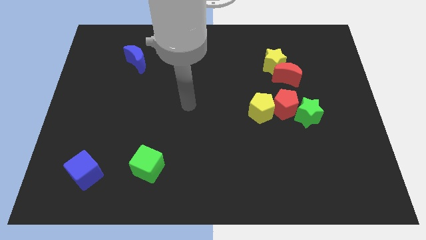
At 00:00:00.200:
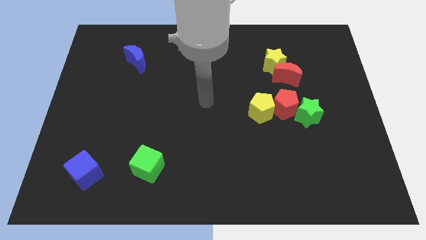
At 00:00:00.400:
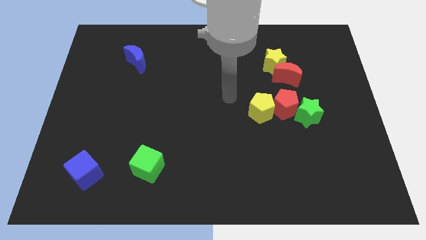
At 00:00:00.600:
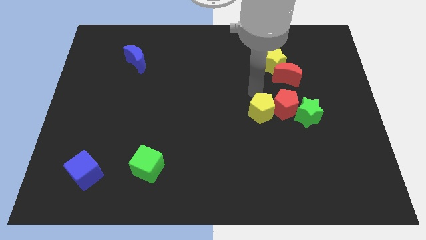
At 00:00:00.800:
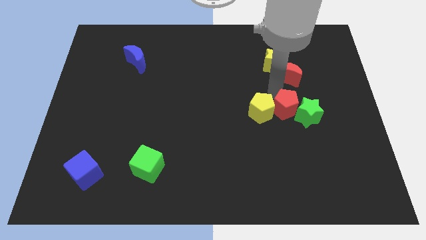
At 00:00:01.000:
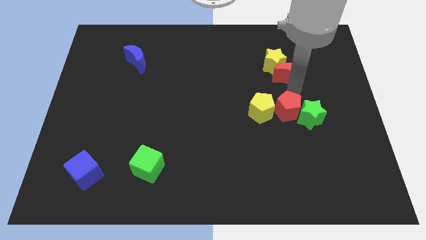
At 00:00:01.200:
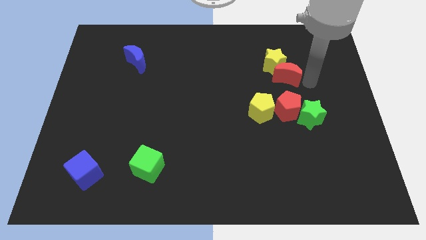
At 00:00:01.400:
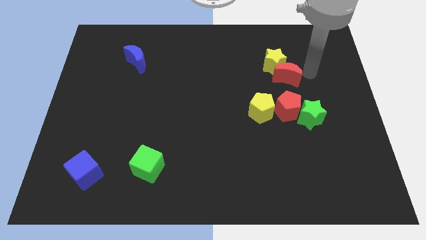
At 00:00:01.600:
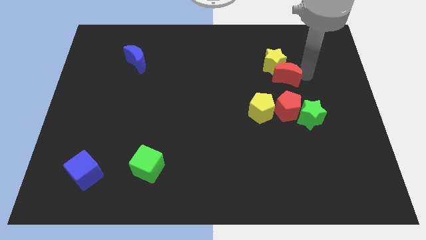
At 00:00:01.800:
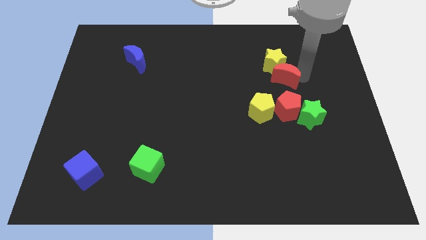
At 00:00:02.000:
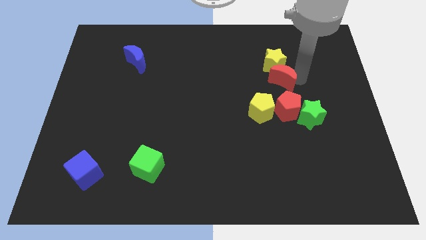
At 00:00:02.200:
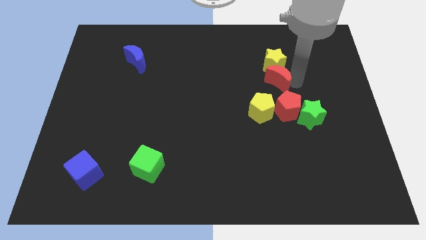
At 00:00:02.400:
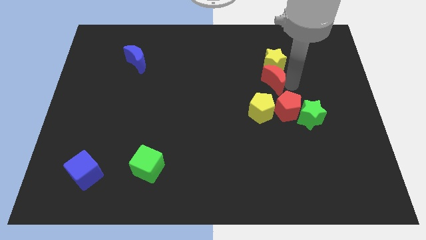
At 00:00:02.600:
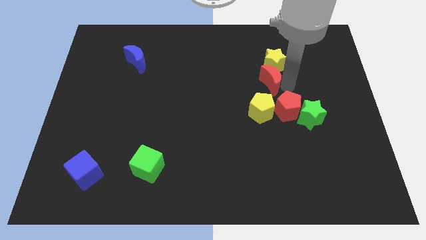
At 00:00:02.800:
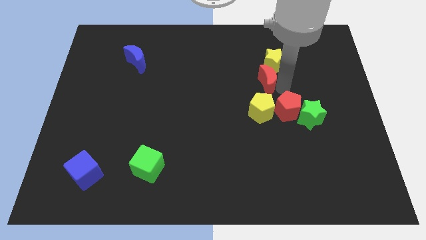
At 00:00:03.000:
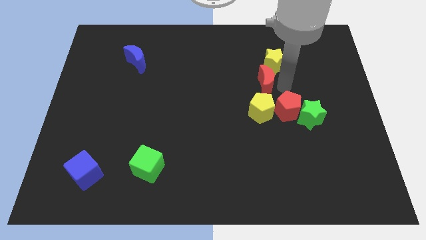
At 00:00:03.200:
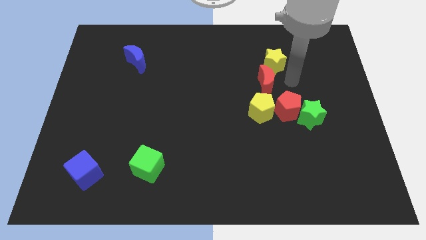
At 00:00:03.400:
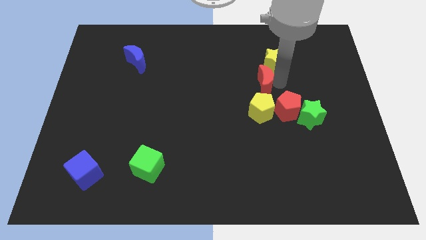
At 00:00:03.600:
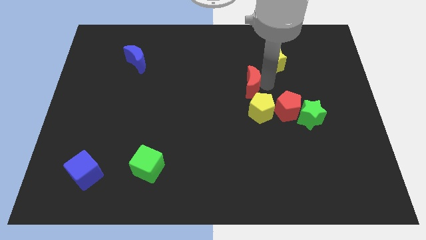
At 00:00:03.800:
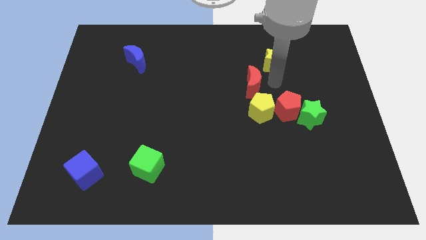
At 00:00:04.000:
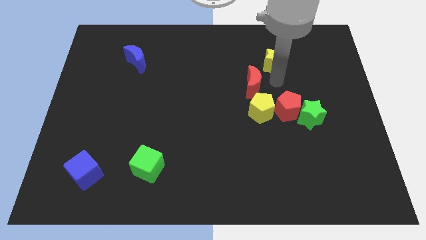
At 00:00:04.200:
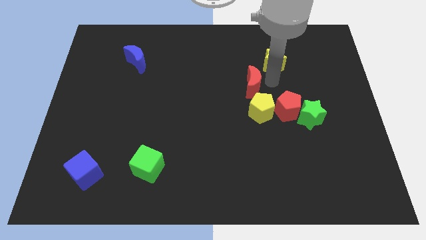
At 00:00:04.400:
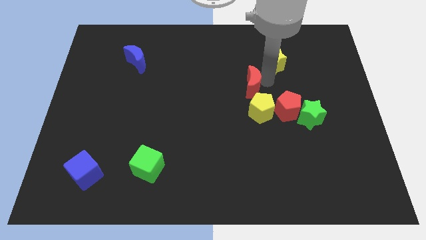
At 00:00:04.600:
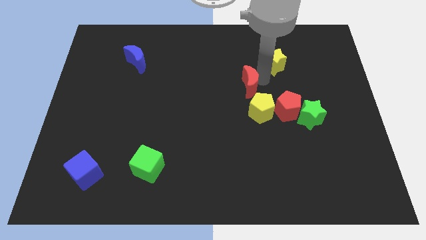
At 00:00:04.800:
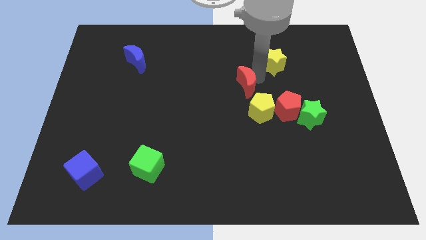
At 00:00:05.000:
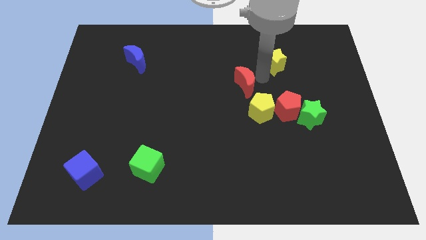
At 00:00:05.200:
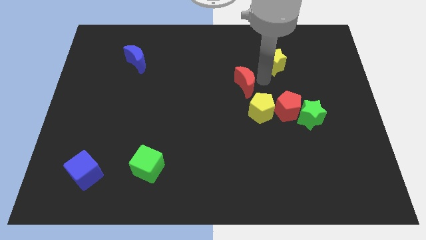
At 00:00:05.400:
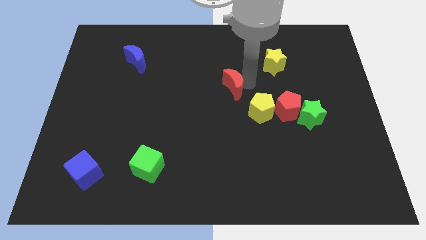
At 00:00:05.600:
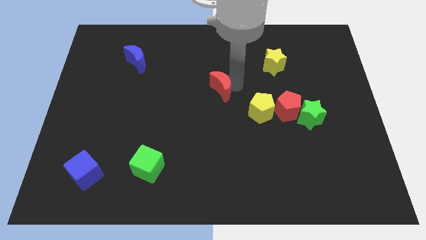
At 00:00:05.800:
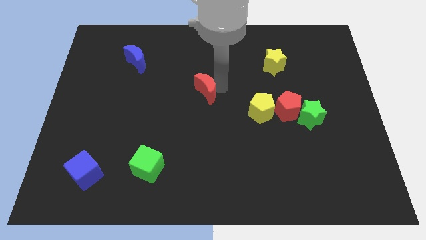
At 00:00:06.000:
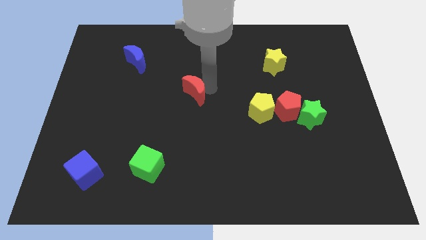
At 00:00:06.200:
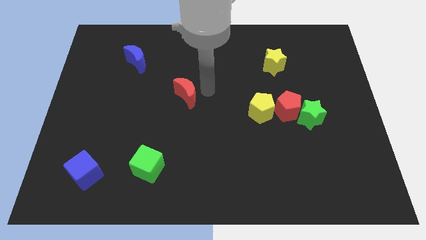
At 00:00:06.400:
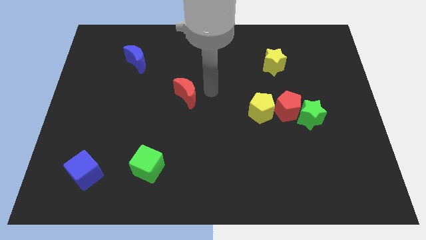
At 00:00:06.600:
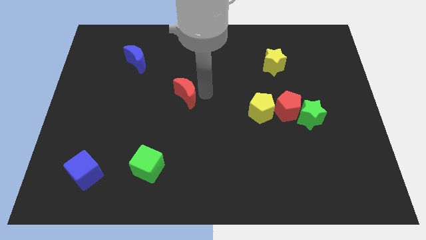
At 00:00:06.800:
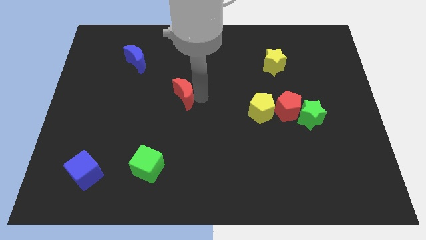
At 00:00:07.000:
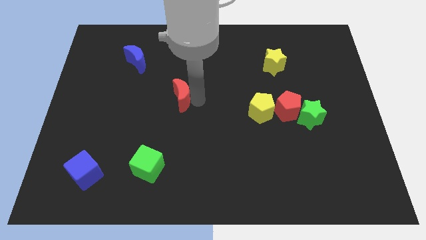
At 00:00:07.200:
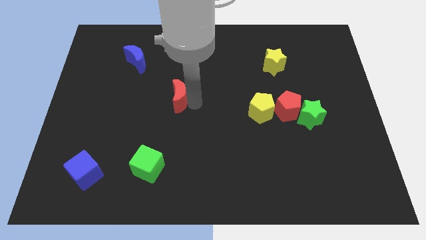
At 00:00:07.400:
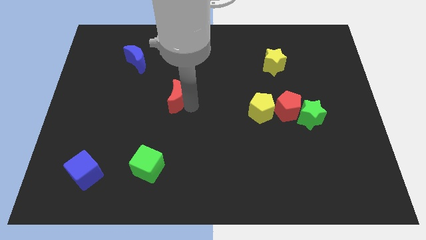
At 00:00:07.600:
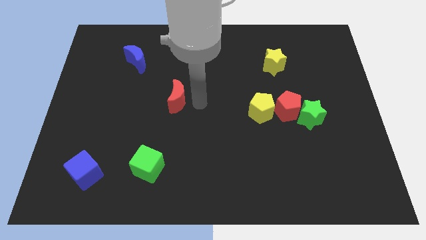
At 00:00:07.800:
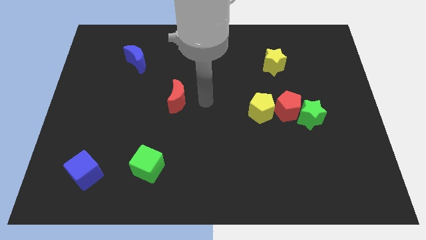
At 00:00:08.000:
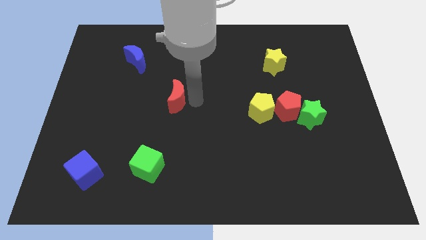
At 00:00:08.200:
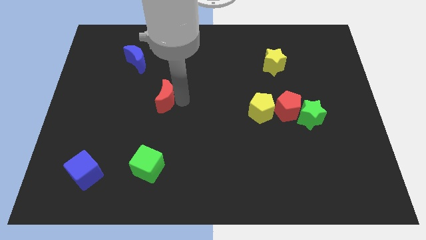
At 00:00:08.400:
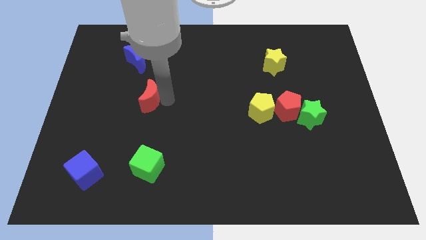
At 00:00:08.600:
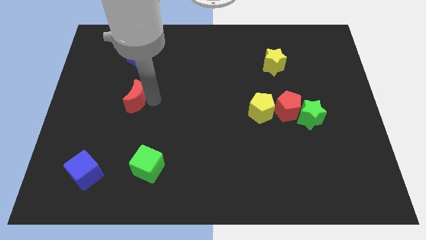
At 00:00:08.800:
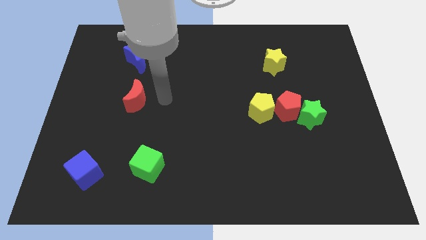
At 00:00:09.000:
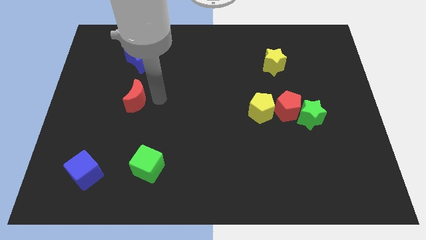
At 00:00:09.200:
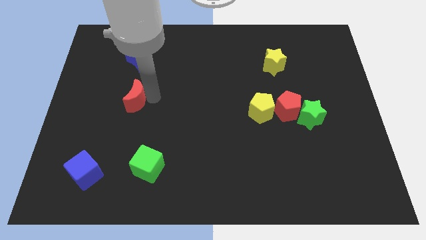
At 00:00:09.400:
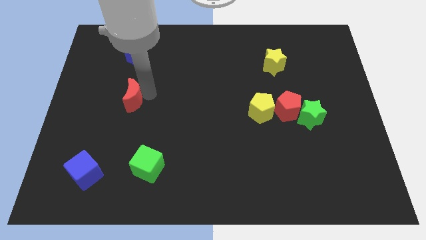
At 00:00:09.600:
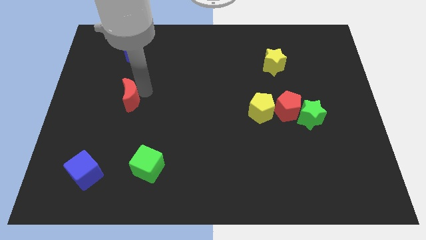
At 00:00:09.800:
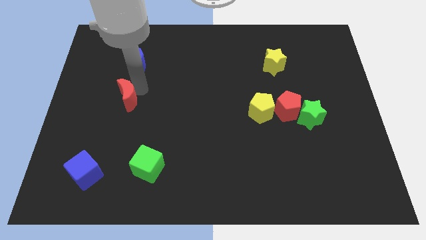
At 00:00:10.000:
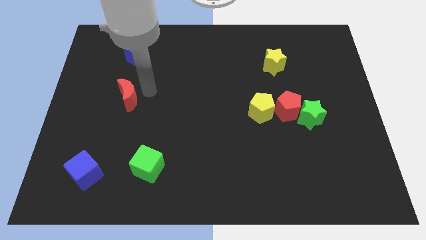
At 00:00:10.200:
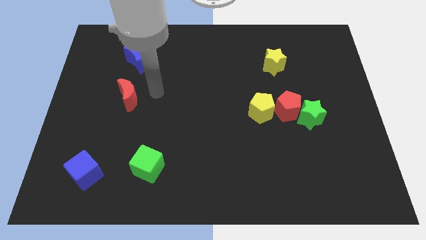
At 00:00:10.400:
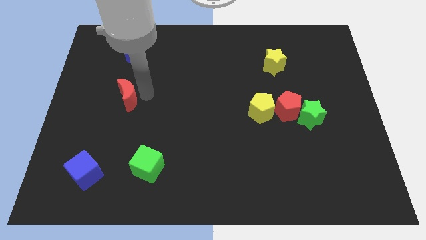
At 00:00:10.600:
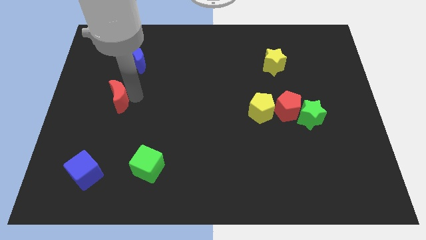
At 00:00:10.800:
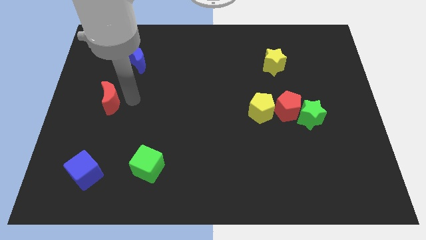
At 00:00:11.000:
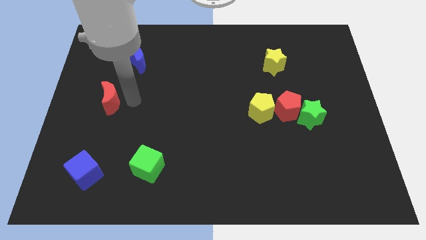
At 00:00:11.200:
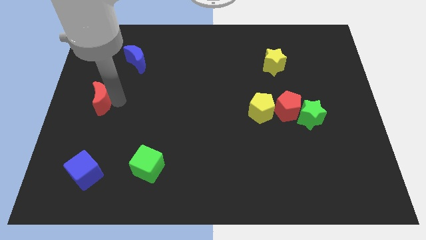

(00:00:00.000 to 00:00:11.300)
slide the red moon to the center left
